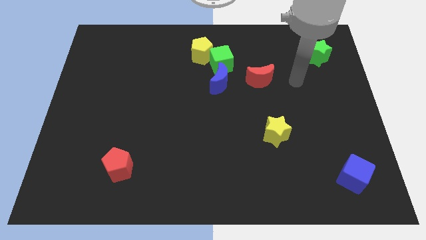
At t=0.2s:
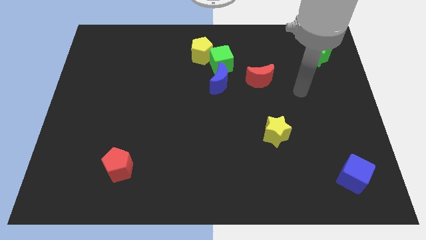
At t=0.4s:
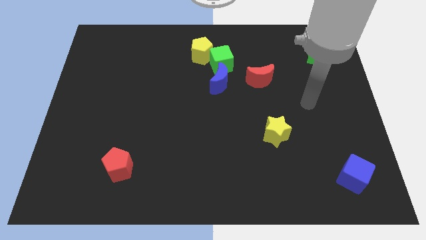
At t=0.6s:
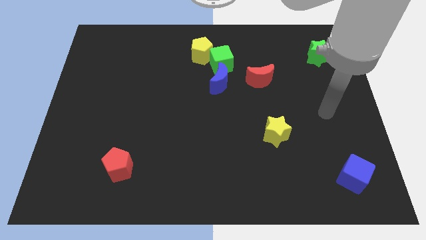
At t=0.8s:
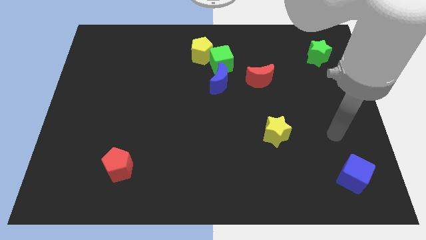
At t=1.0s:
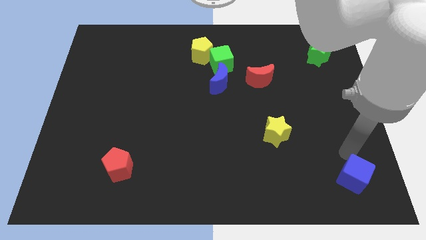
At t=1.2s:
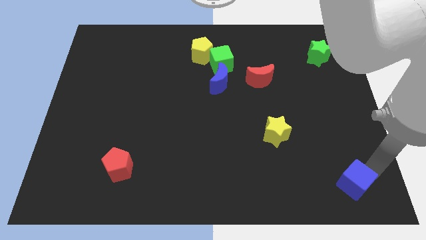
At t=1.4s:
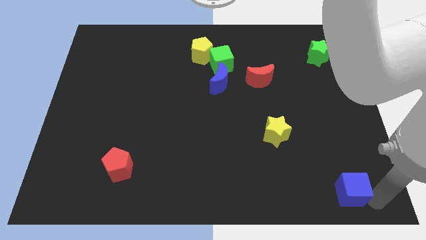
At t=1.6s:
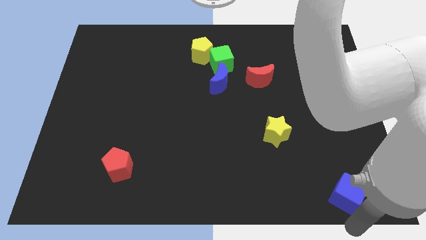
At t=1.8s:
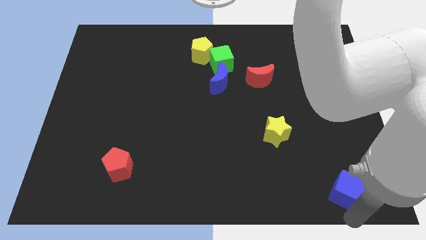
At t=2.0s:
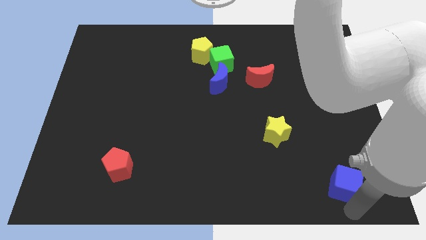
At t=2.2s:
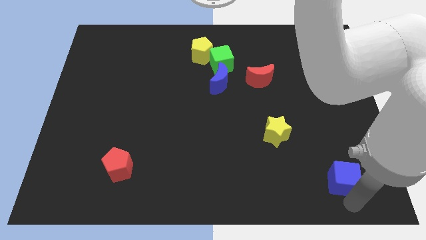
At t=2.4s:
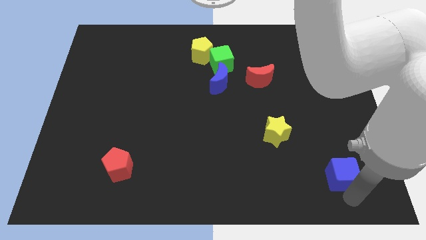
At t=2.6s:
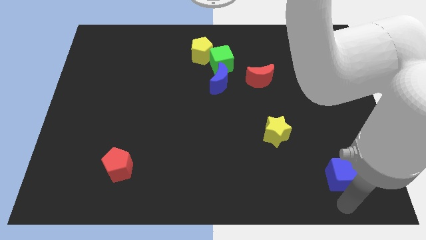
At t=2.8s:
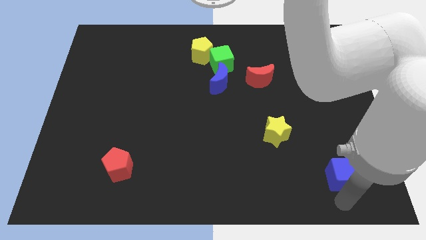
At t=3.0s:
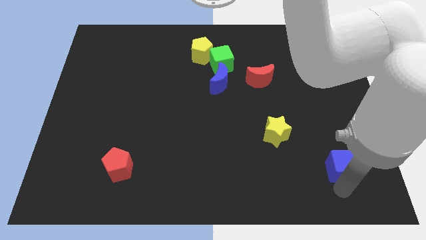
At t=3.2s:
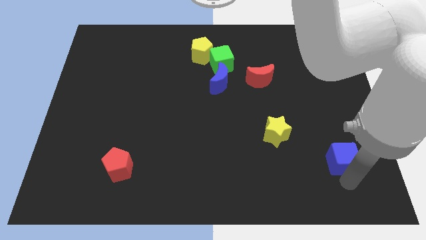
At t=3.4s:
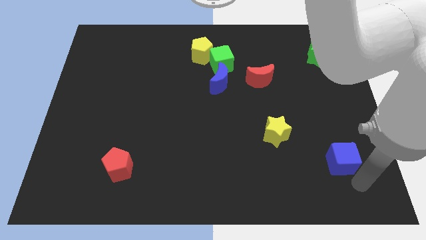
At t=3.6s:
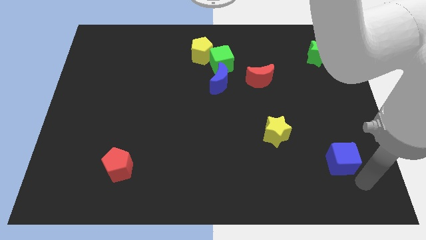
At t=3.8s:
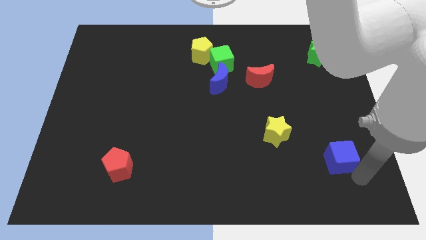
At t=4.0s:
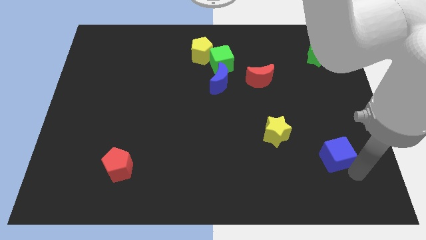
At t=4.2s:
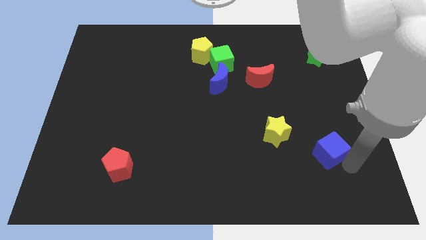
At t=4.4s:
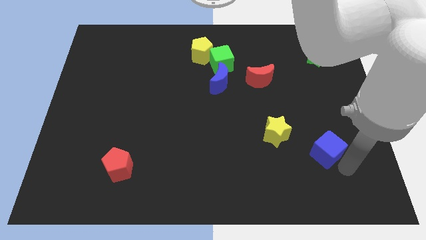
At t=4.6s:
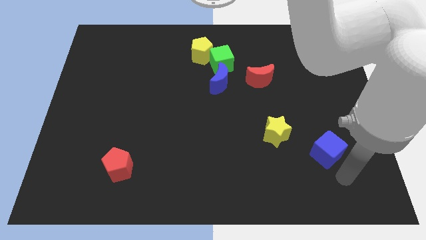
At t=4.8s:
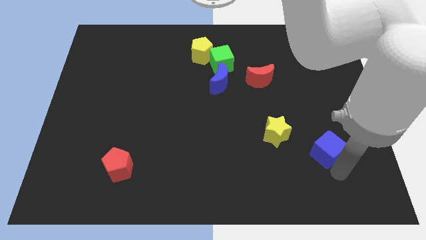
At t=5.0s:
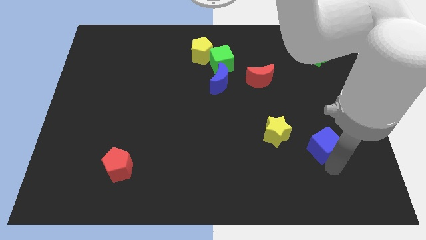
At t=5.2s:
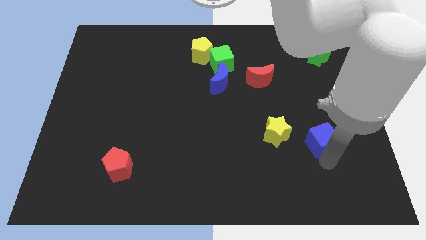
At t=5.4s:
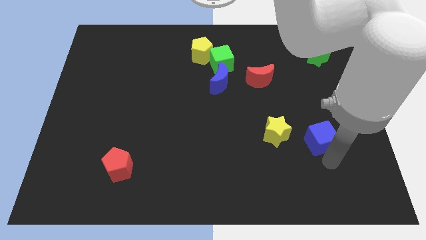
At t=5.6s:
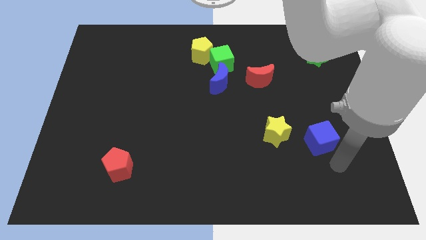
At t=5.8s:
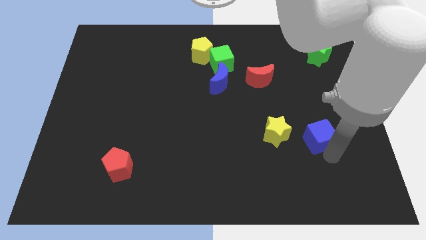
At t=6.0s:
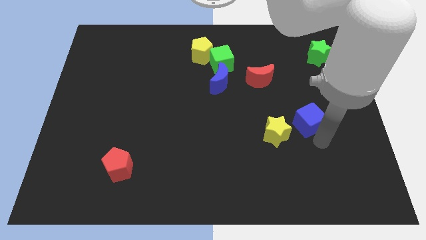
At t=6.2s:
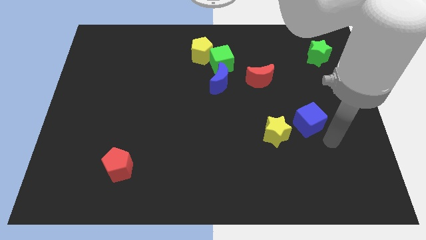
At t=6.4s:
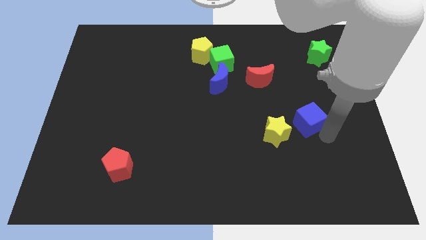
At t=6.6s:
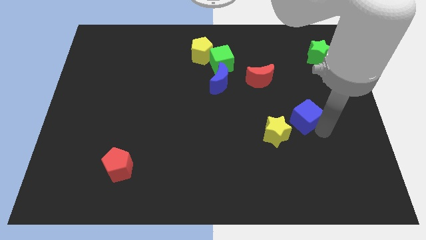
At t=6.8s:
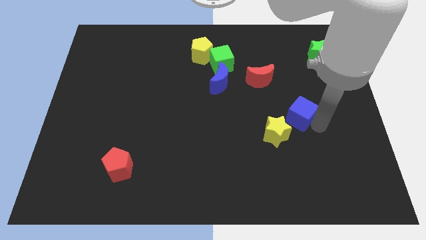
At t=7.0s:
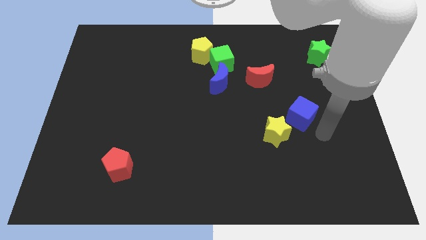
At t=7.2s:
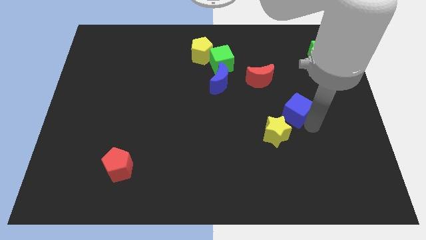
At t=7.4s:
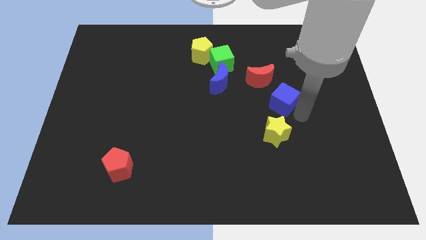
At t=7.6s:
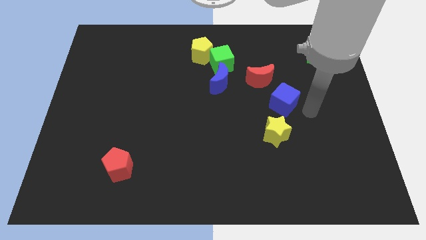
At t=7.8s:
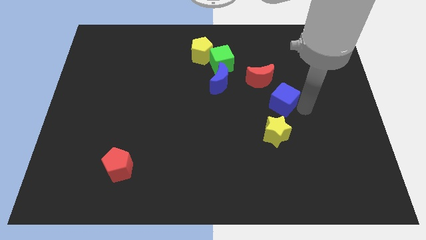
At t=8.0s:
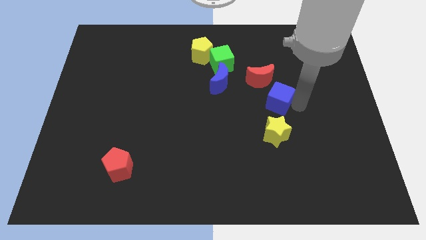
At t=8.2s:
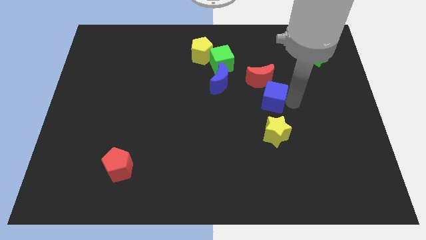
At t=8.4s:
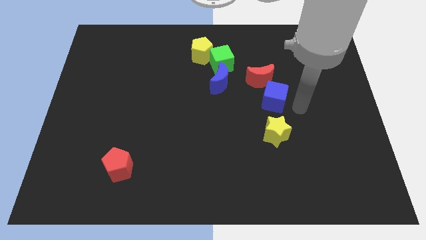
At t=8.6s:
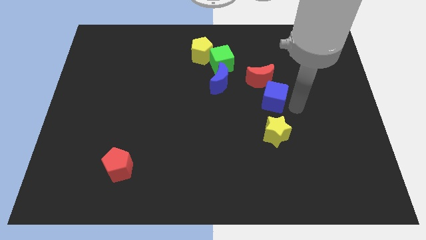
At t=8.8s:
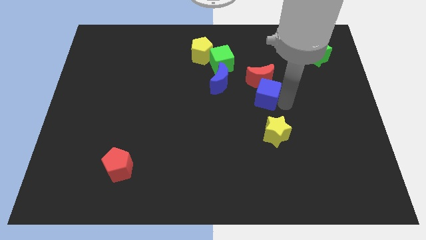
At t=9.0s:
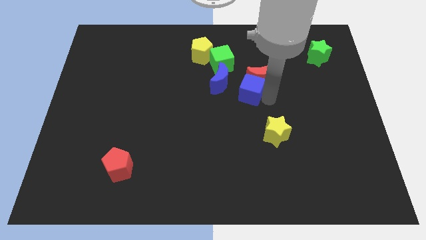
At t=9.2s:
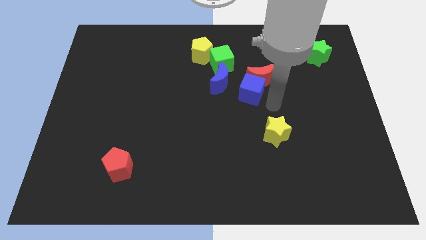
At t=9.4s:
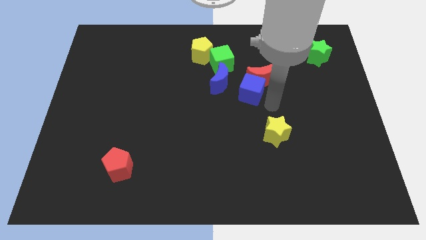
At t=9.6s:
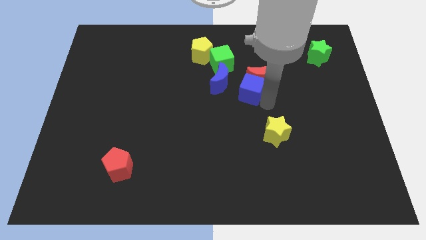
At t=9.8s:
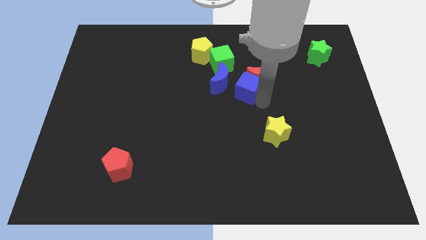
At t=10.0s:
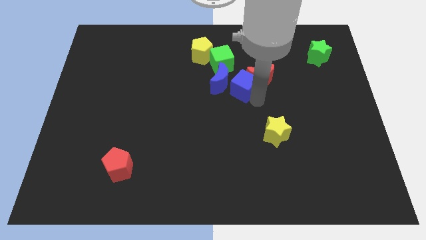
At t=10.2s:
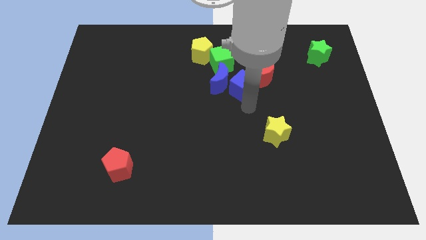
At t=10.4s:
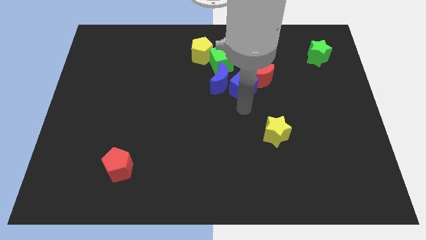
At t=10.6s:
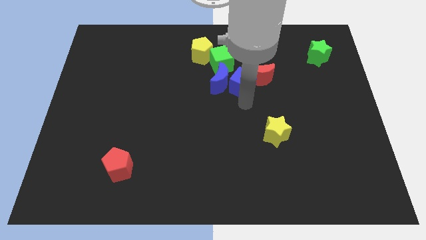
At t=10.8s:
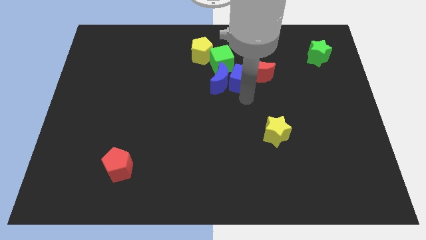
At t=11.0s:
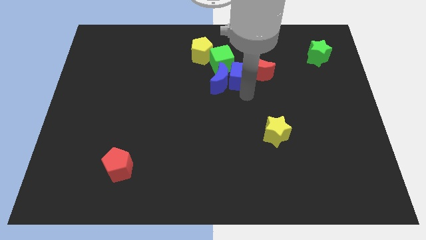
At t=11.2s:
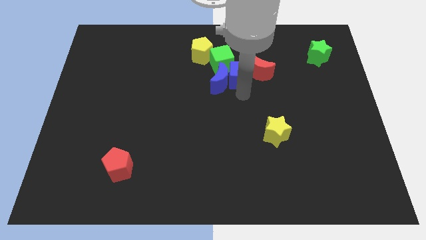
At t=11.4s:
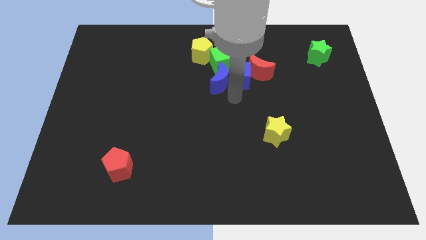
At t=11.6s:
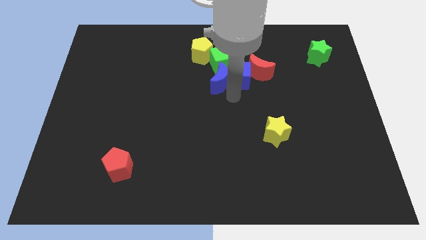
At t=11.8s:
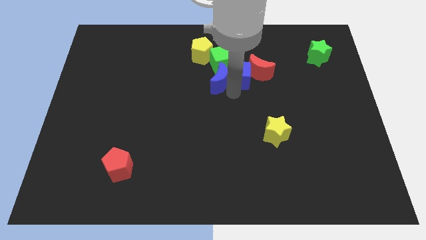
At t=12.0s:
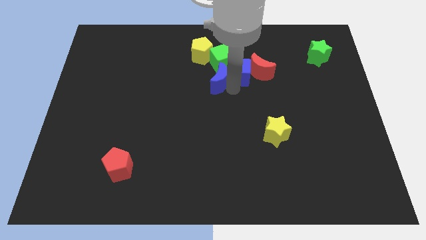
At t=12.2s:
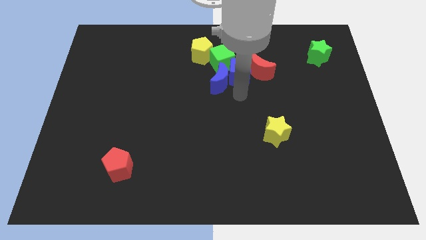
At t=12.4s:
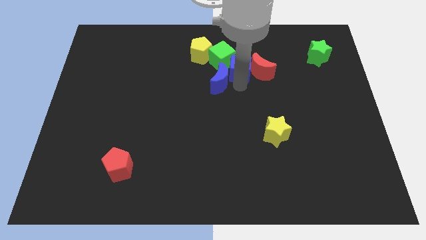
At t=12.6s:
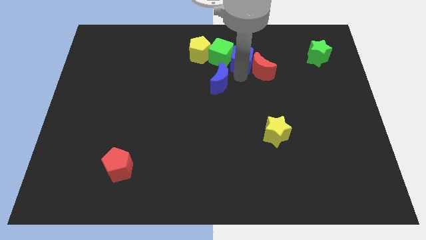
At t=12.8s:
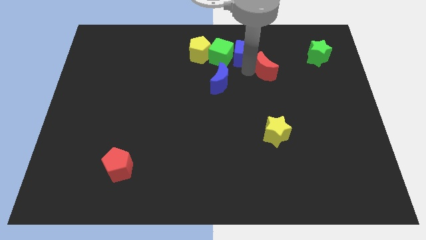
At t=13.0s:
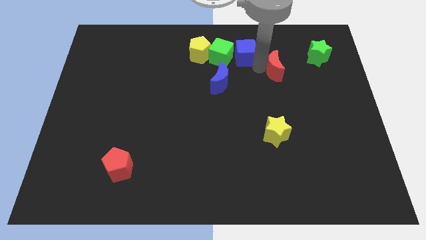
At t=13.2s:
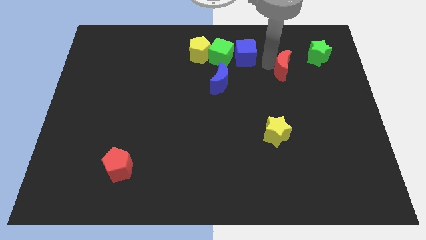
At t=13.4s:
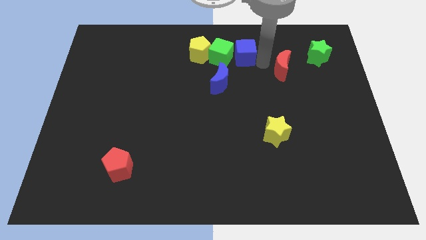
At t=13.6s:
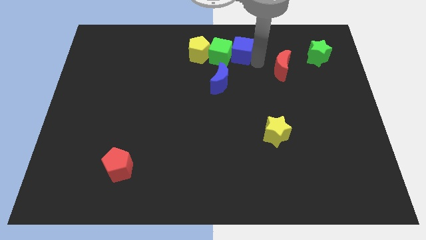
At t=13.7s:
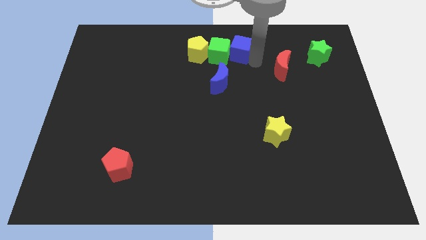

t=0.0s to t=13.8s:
move the blue cube to the top
